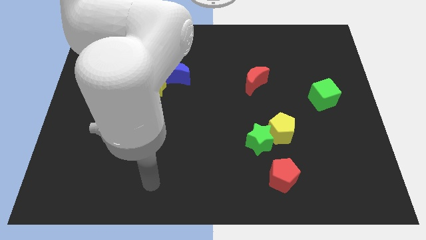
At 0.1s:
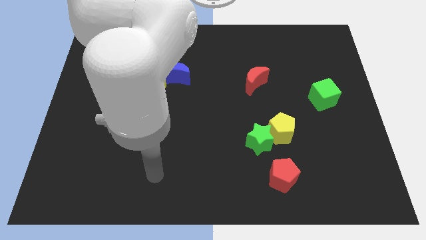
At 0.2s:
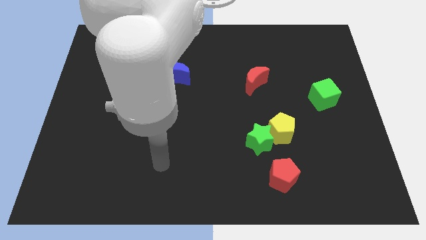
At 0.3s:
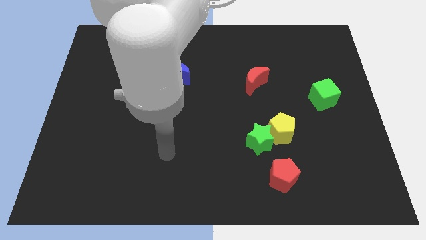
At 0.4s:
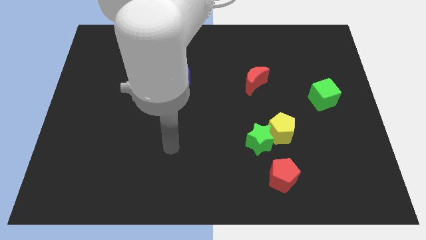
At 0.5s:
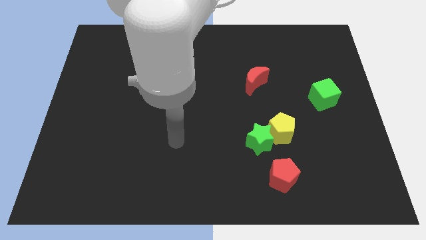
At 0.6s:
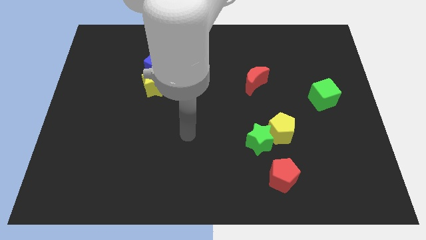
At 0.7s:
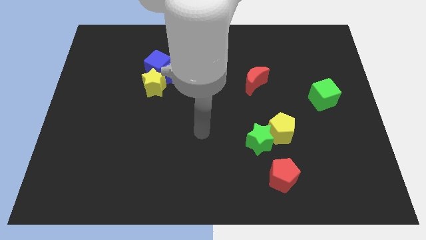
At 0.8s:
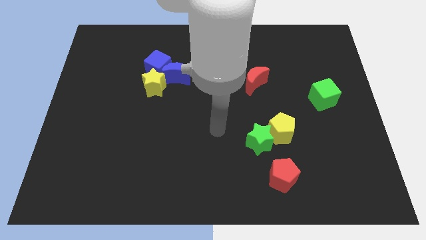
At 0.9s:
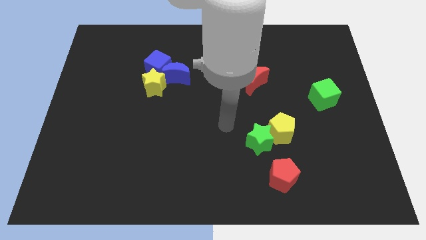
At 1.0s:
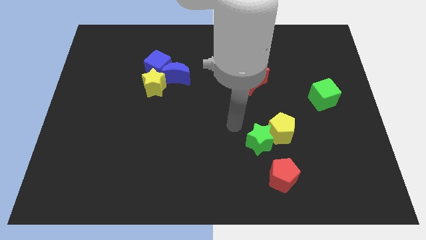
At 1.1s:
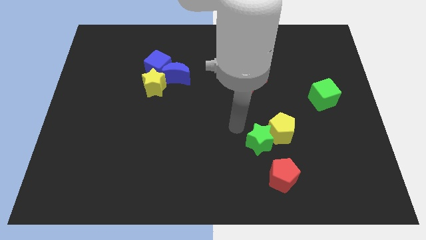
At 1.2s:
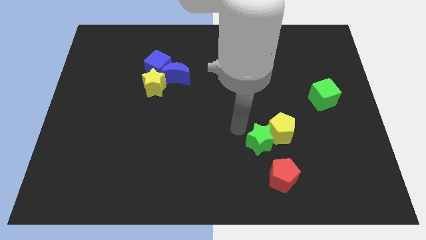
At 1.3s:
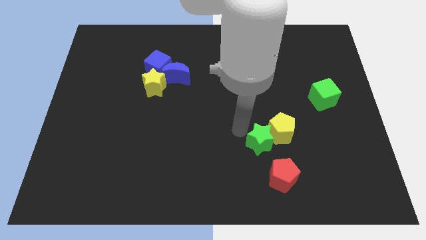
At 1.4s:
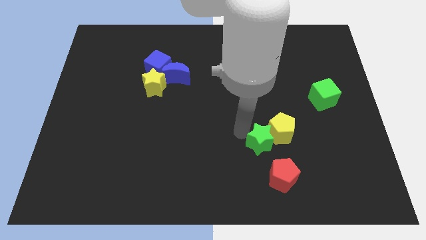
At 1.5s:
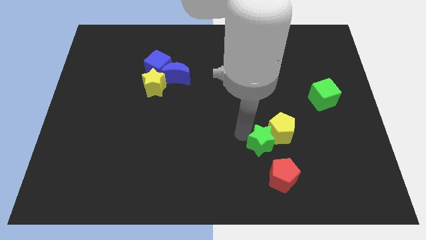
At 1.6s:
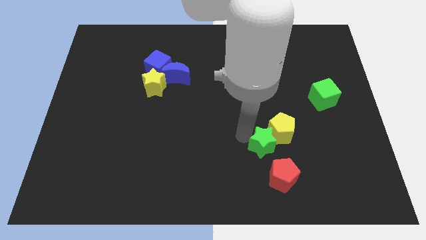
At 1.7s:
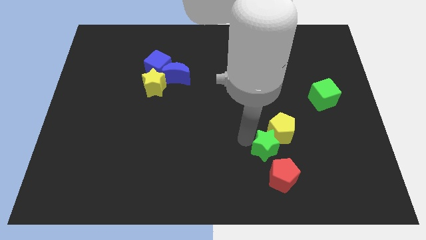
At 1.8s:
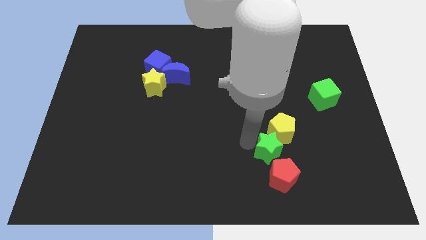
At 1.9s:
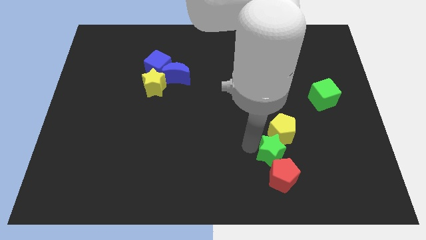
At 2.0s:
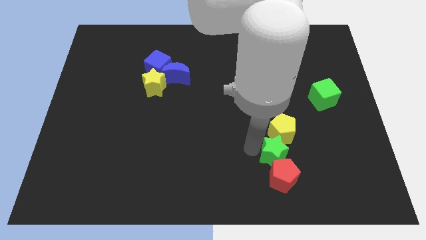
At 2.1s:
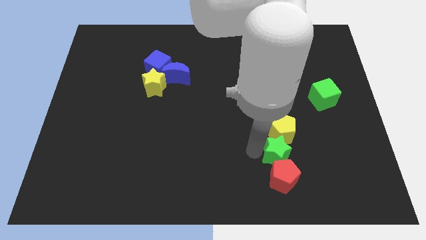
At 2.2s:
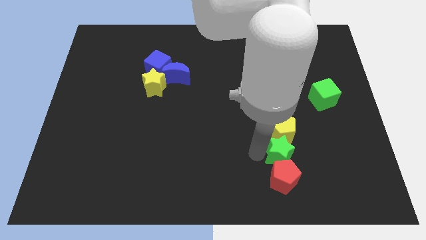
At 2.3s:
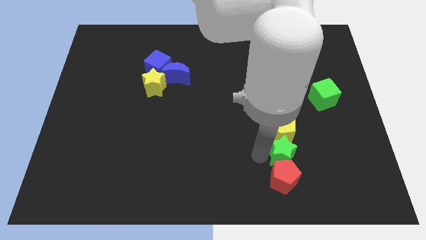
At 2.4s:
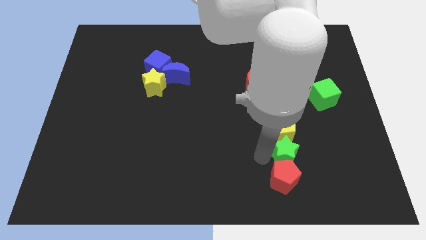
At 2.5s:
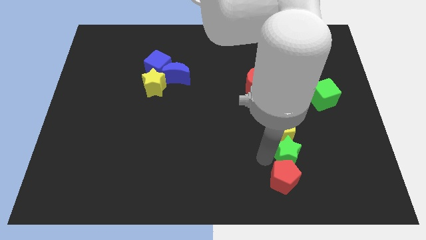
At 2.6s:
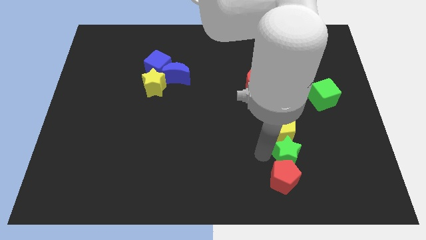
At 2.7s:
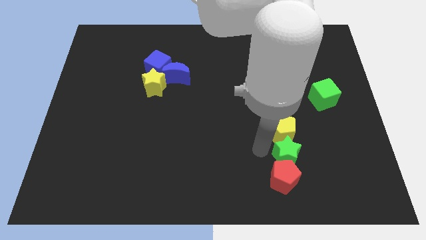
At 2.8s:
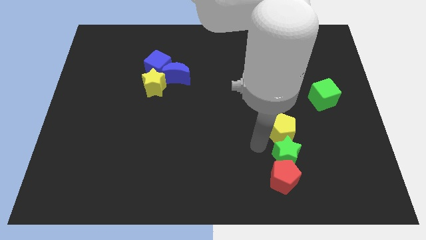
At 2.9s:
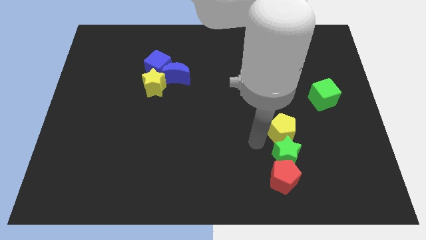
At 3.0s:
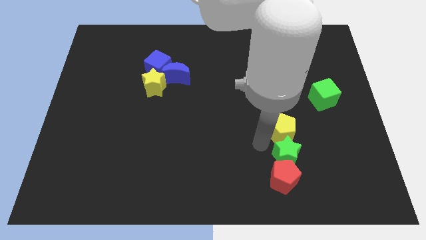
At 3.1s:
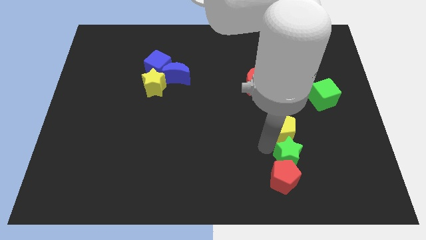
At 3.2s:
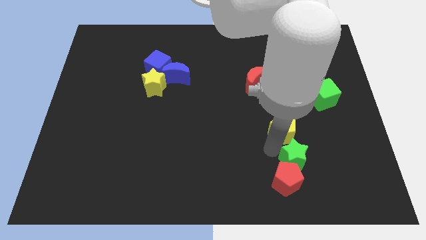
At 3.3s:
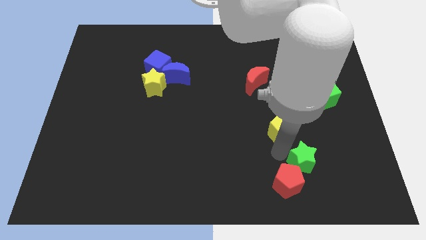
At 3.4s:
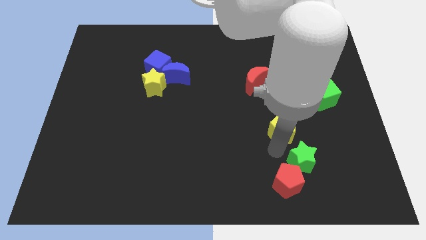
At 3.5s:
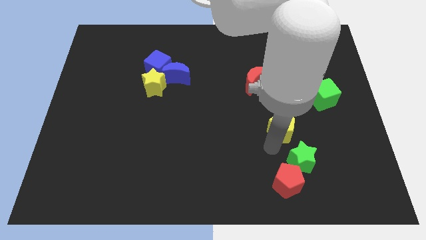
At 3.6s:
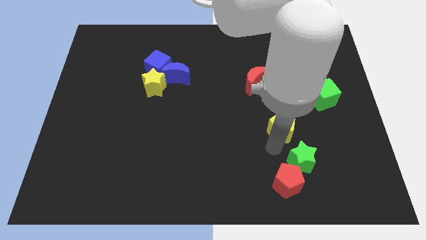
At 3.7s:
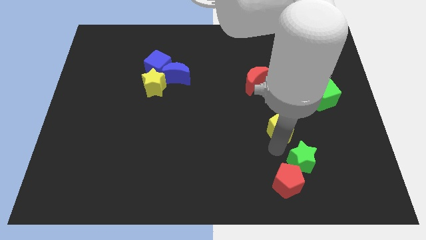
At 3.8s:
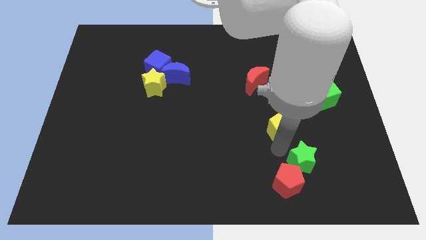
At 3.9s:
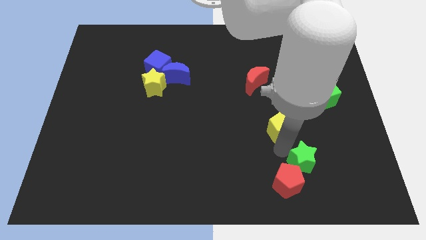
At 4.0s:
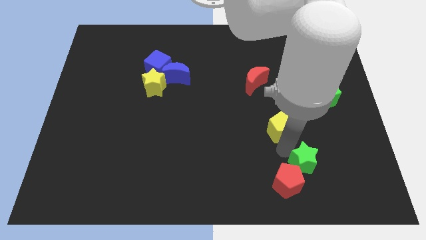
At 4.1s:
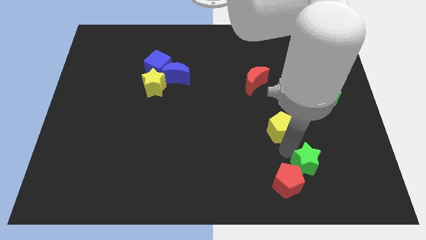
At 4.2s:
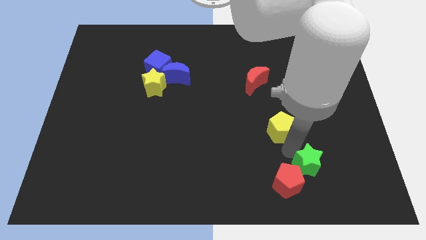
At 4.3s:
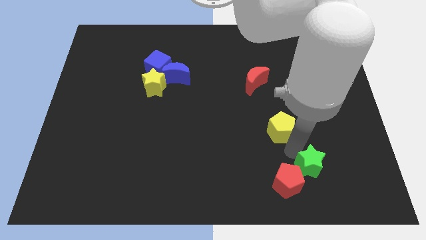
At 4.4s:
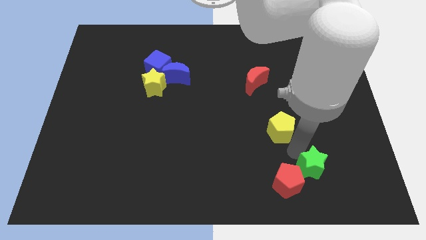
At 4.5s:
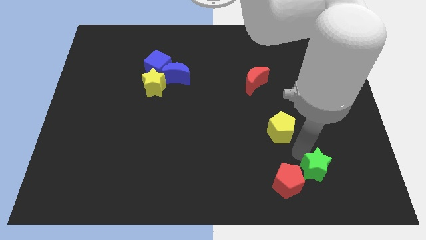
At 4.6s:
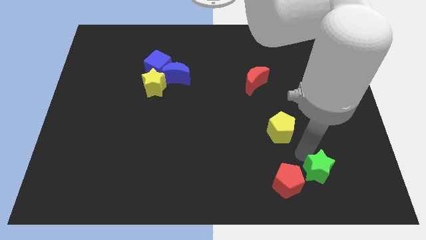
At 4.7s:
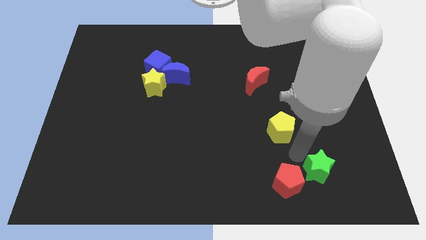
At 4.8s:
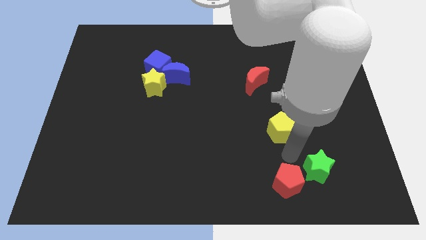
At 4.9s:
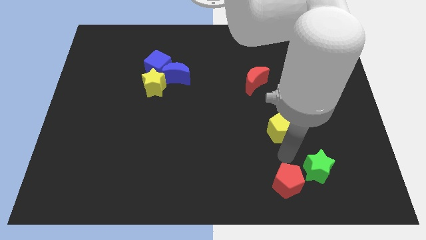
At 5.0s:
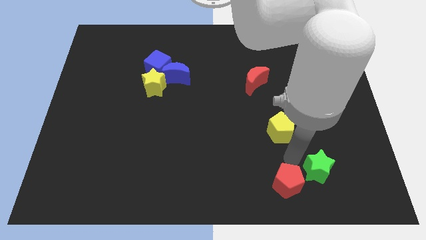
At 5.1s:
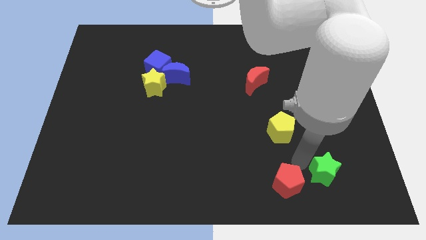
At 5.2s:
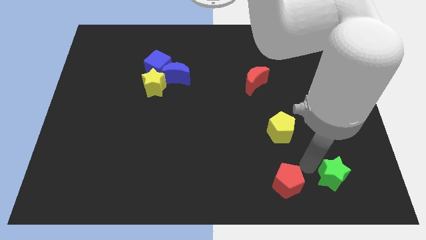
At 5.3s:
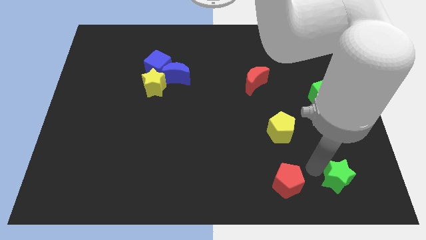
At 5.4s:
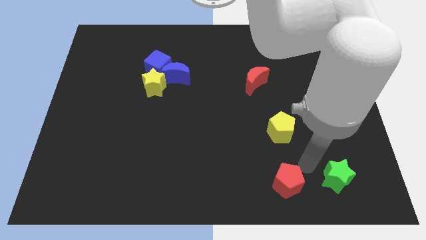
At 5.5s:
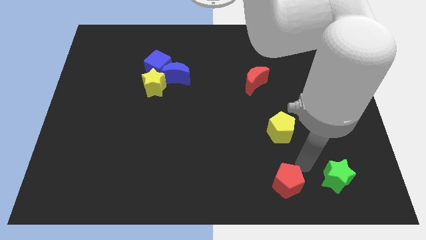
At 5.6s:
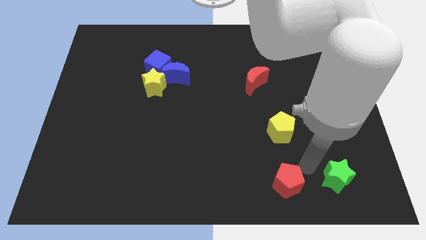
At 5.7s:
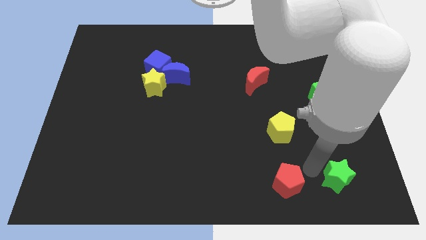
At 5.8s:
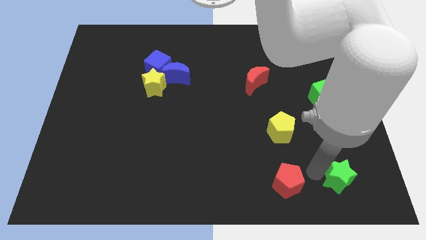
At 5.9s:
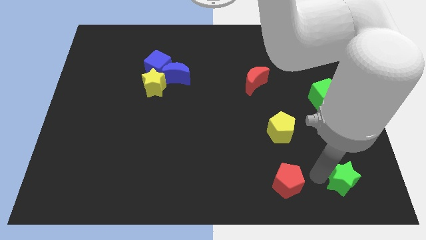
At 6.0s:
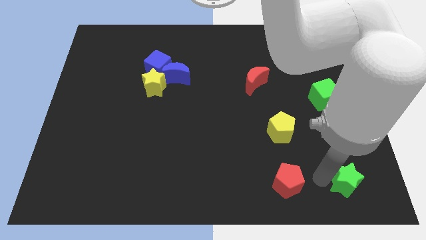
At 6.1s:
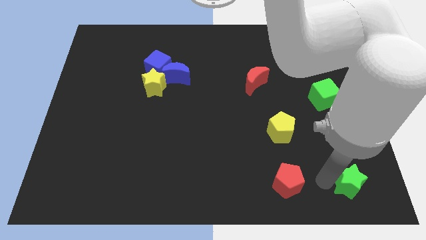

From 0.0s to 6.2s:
slide the green star to the bottom right corner
